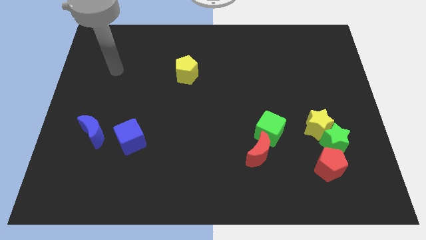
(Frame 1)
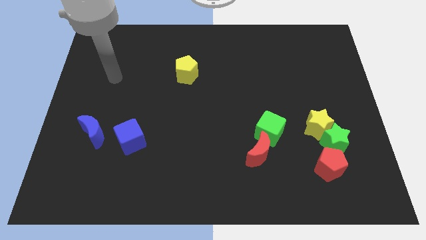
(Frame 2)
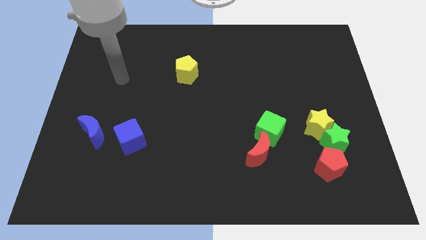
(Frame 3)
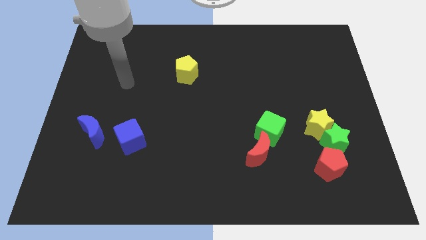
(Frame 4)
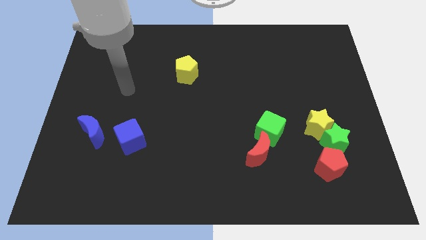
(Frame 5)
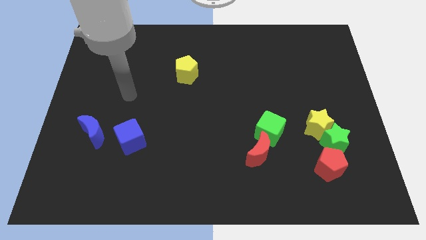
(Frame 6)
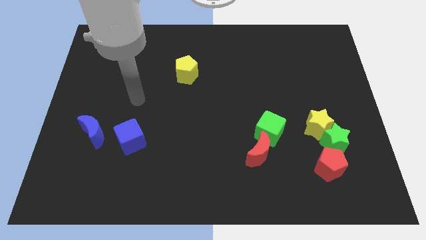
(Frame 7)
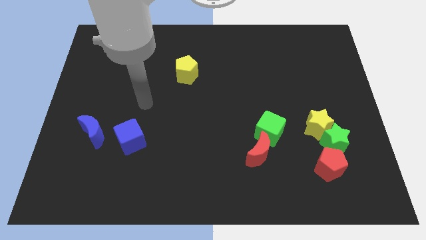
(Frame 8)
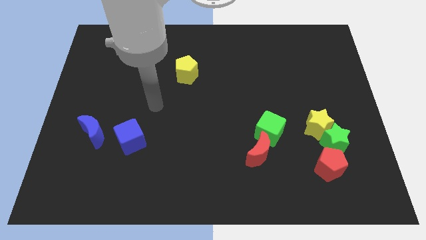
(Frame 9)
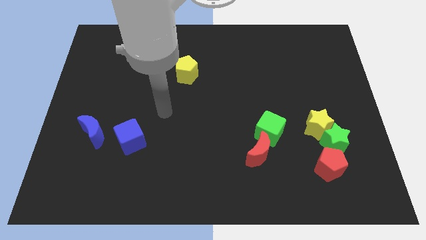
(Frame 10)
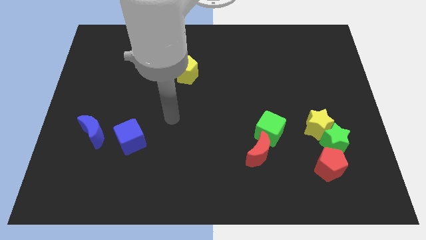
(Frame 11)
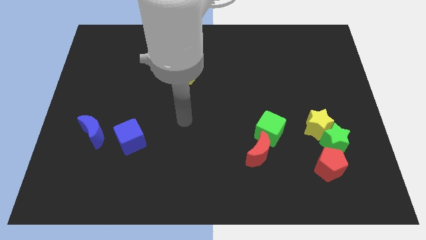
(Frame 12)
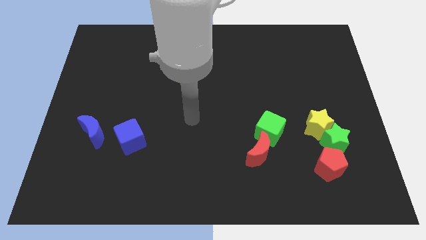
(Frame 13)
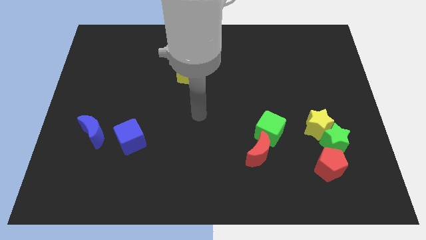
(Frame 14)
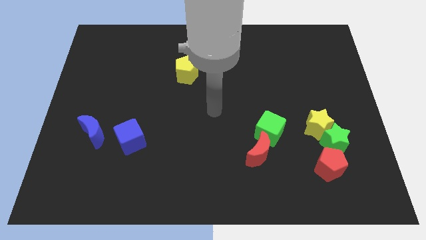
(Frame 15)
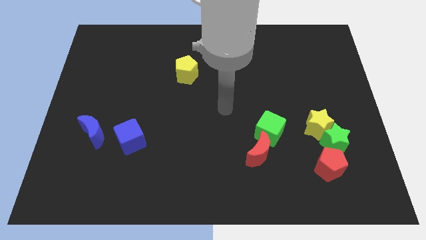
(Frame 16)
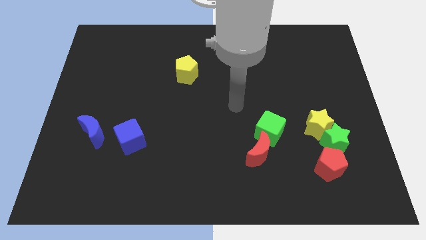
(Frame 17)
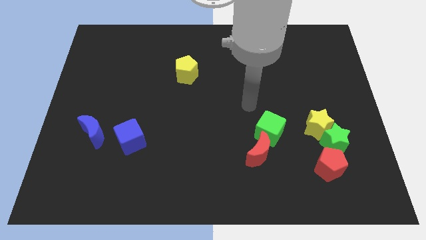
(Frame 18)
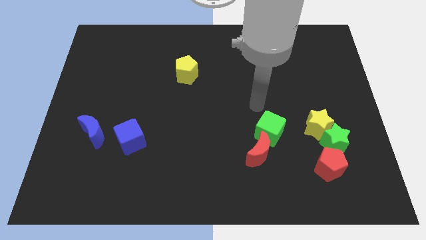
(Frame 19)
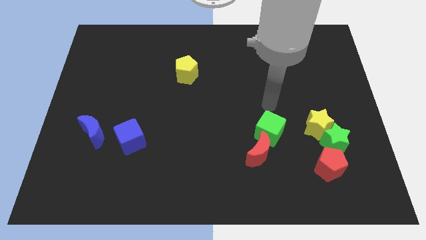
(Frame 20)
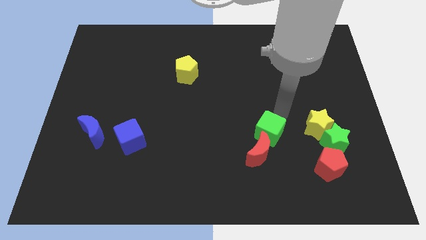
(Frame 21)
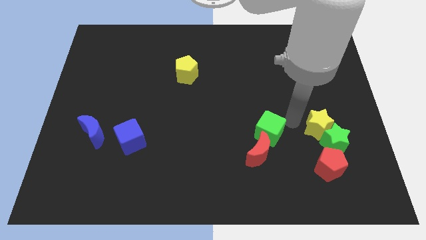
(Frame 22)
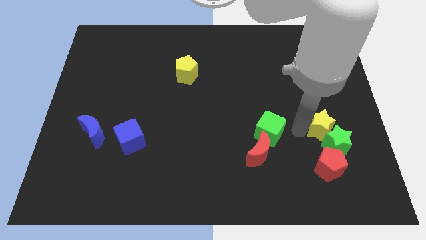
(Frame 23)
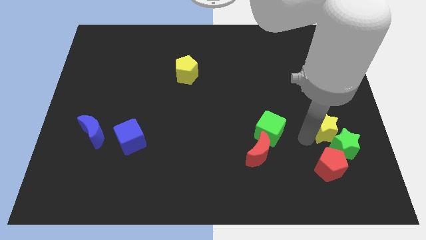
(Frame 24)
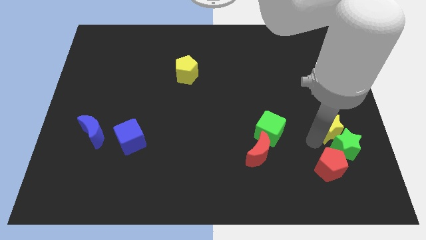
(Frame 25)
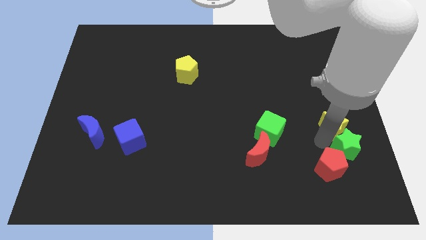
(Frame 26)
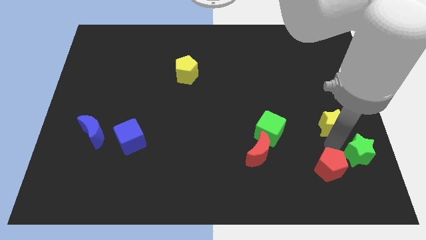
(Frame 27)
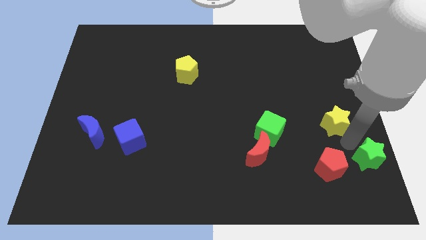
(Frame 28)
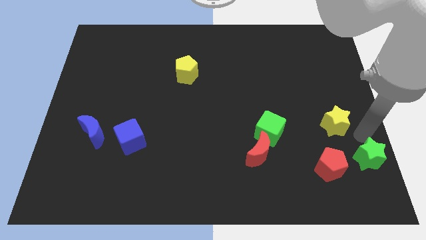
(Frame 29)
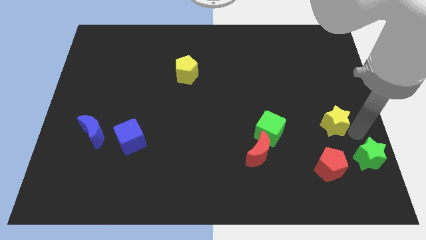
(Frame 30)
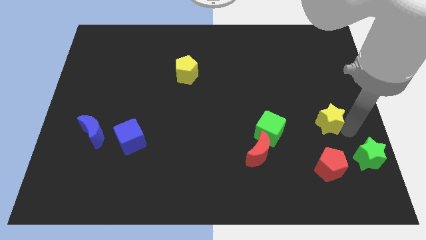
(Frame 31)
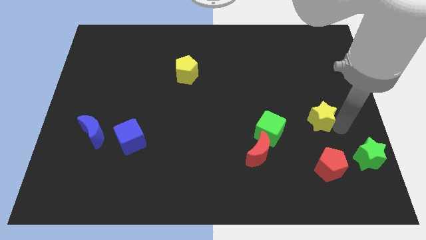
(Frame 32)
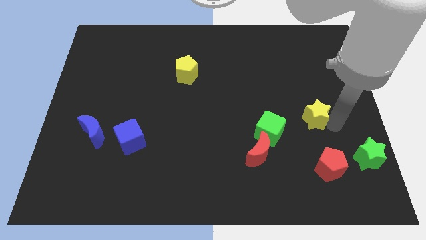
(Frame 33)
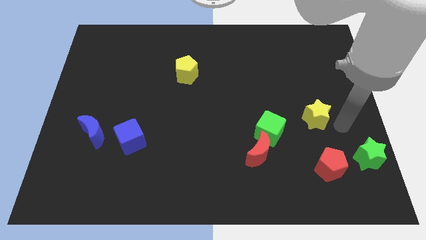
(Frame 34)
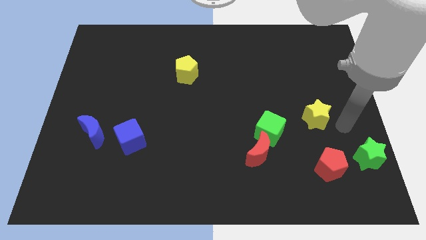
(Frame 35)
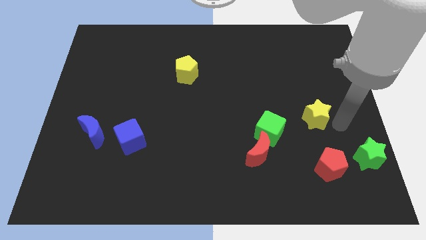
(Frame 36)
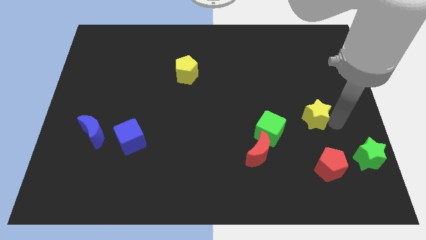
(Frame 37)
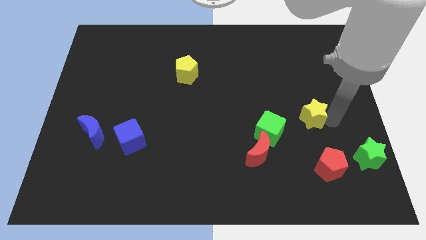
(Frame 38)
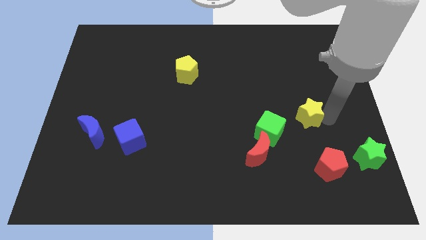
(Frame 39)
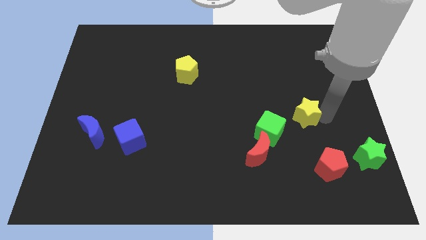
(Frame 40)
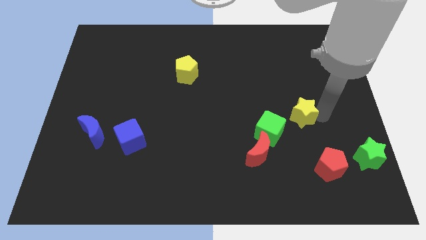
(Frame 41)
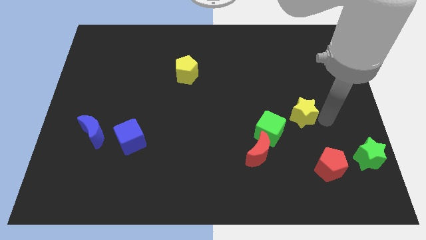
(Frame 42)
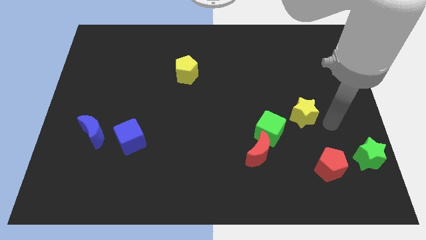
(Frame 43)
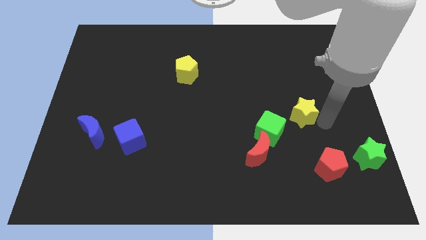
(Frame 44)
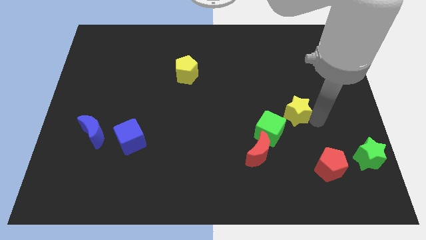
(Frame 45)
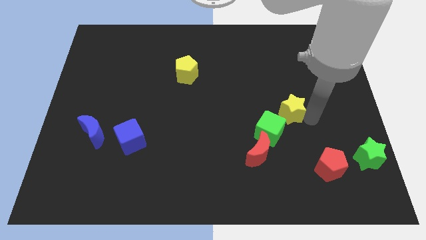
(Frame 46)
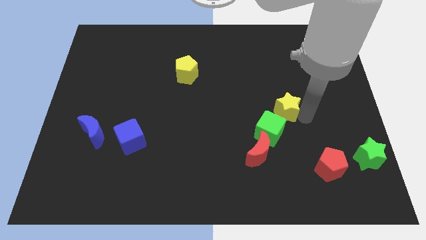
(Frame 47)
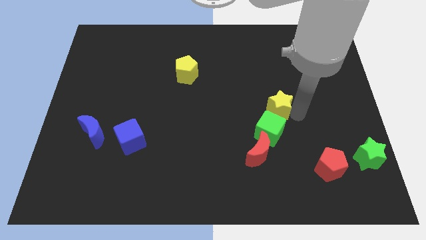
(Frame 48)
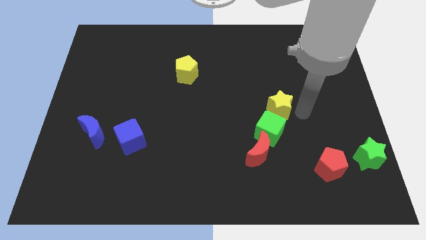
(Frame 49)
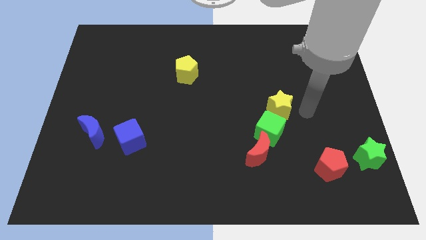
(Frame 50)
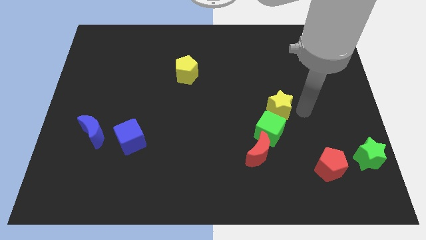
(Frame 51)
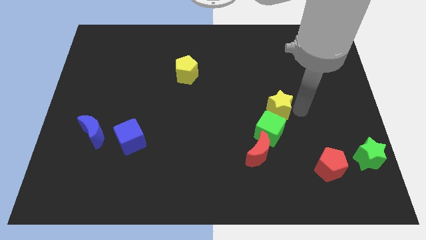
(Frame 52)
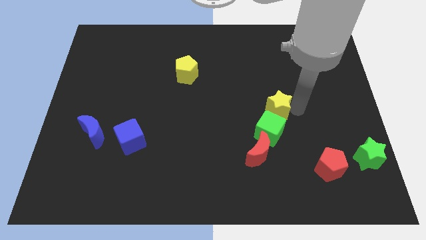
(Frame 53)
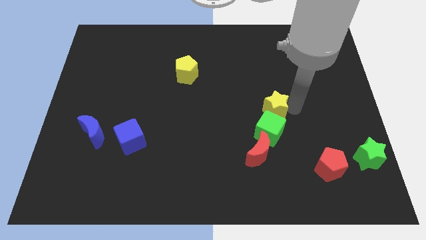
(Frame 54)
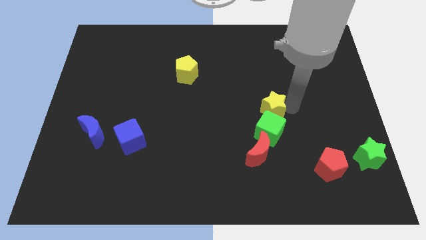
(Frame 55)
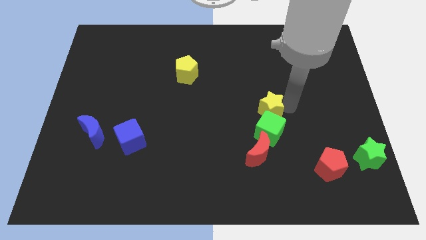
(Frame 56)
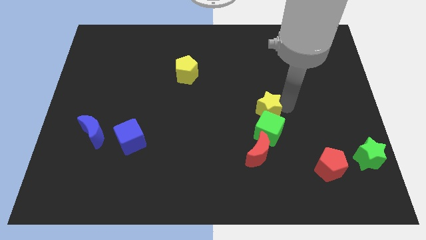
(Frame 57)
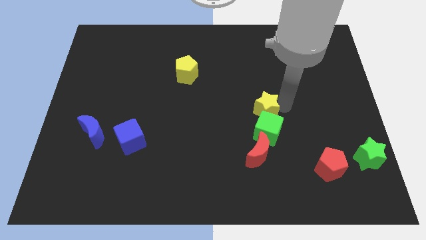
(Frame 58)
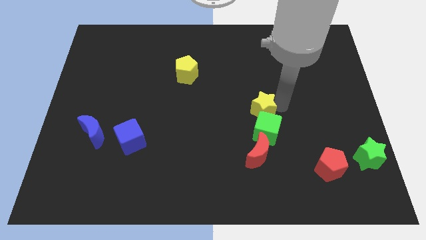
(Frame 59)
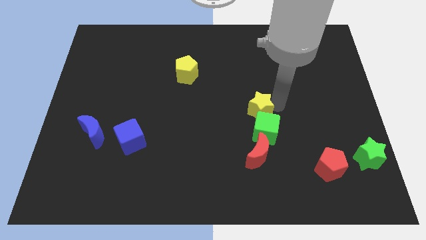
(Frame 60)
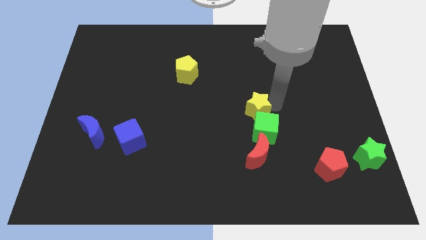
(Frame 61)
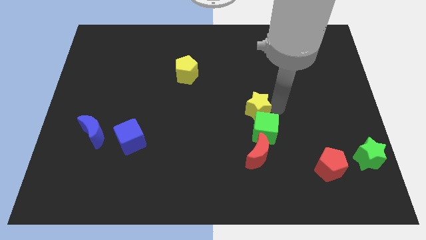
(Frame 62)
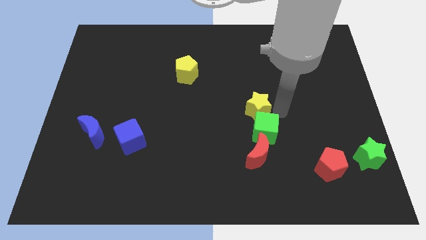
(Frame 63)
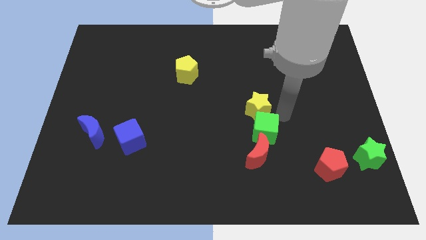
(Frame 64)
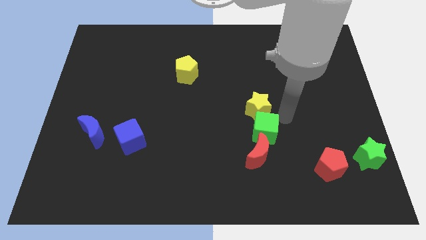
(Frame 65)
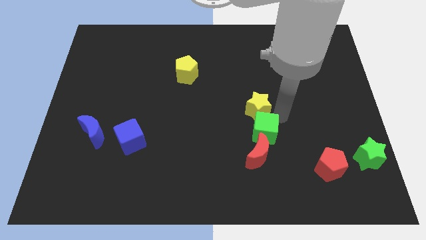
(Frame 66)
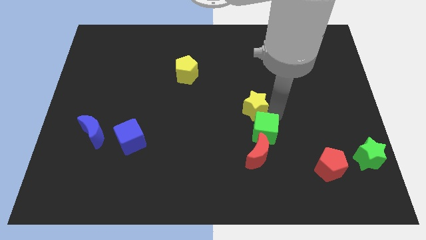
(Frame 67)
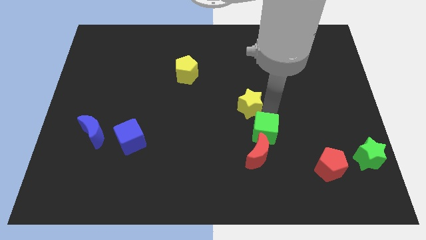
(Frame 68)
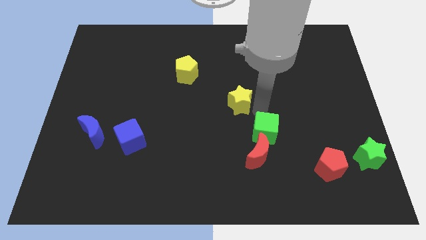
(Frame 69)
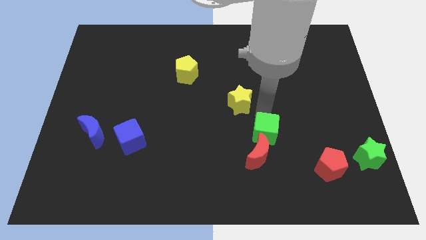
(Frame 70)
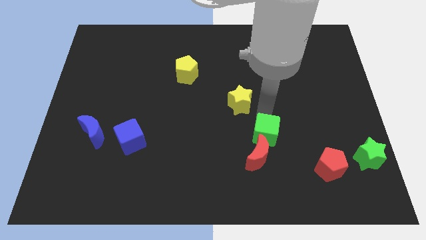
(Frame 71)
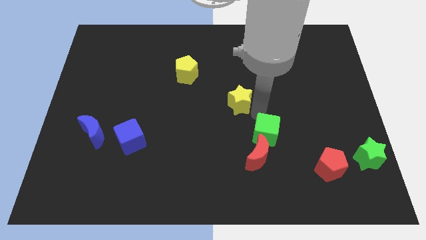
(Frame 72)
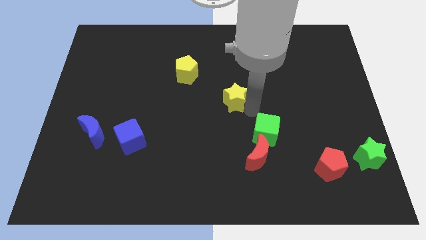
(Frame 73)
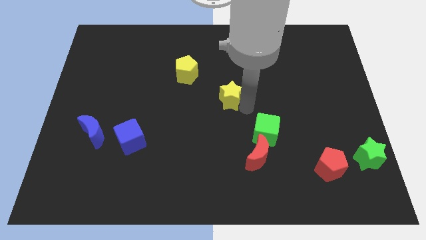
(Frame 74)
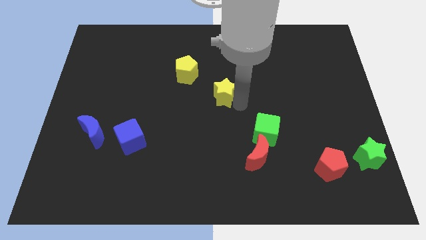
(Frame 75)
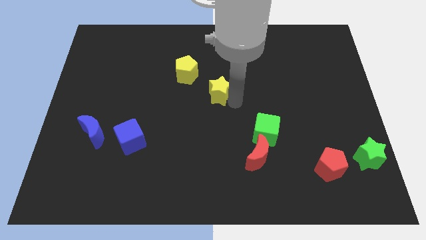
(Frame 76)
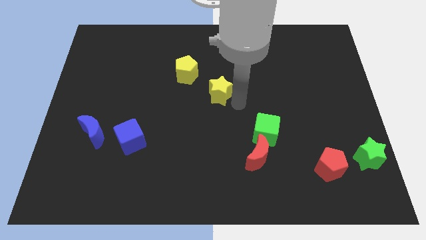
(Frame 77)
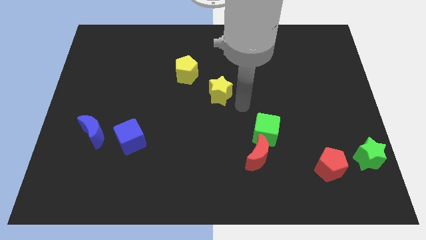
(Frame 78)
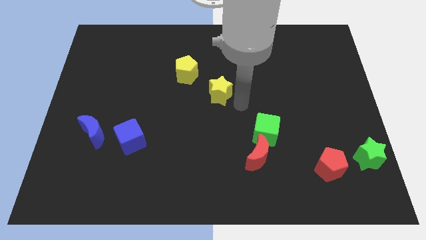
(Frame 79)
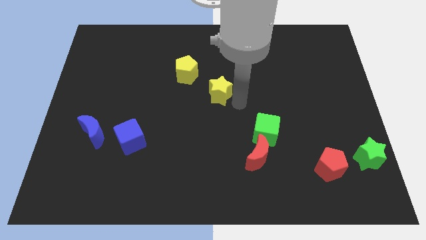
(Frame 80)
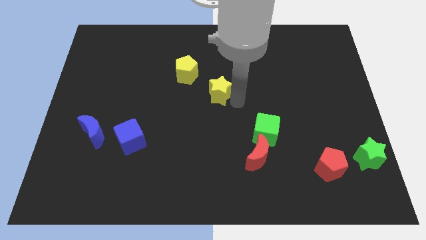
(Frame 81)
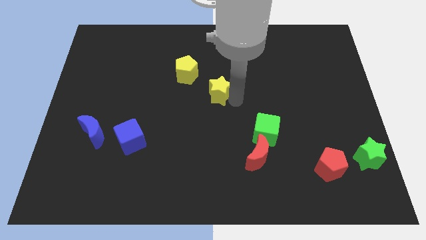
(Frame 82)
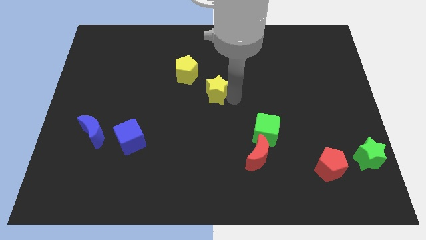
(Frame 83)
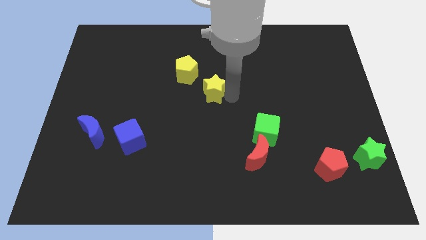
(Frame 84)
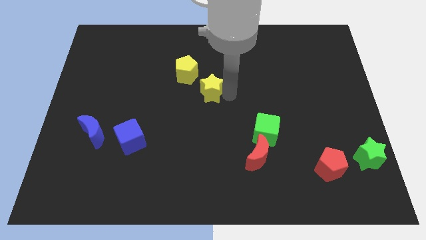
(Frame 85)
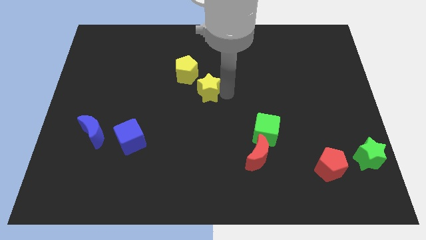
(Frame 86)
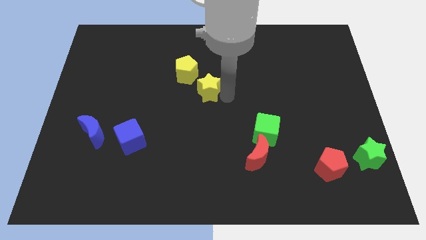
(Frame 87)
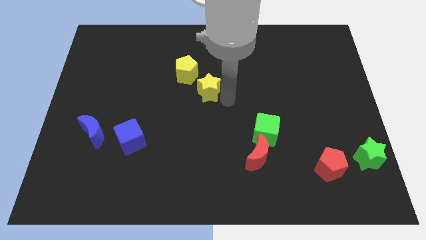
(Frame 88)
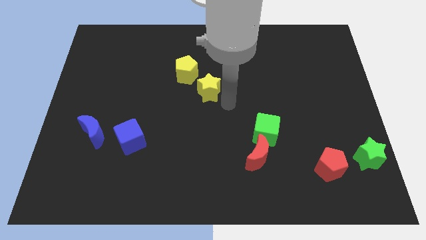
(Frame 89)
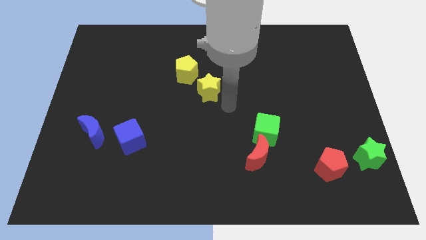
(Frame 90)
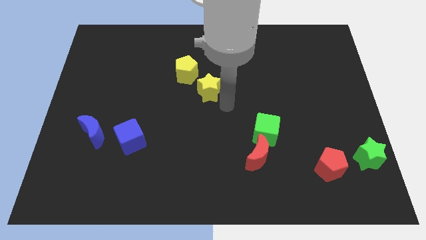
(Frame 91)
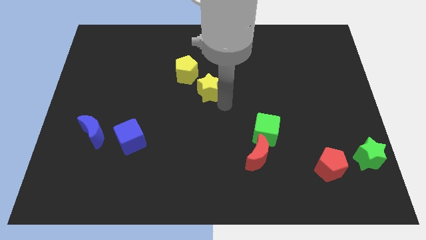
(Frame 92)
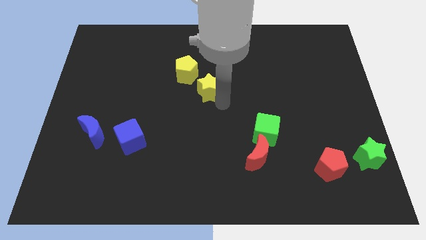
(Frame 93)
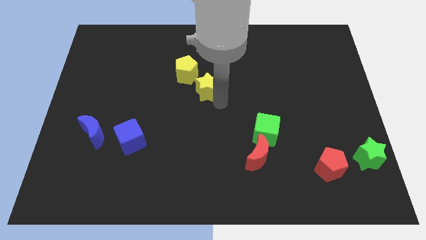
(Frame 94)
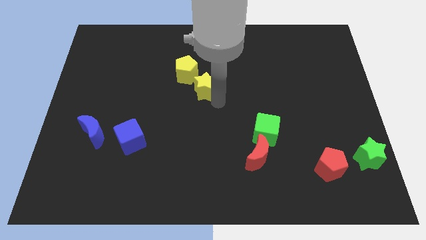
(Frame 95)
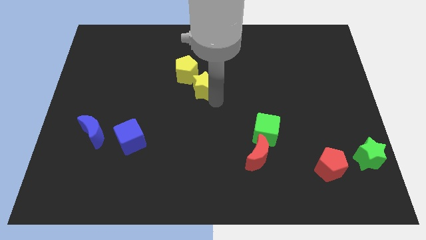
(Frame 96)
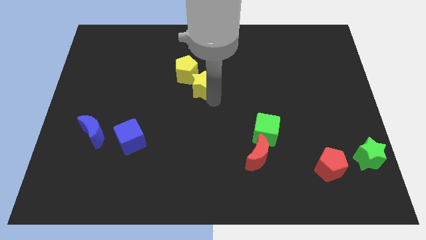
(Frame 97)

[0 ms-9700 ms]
push the yellow star towards the yellow pentagon
